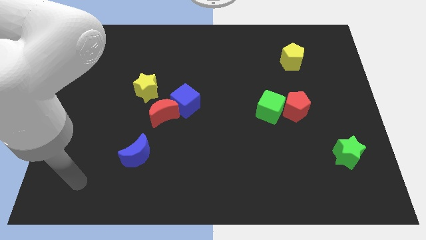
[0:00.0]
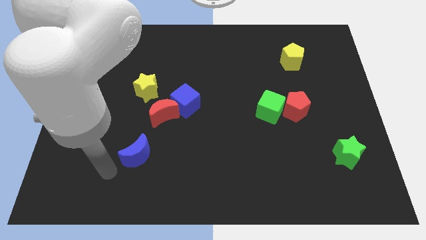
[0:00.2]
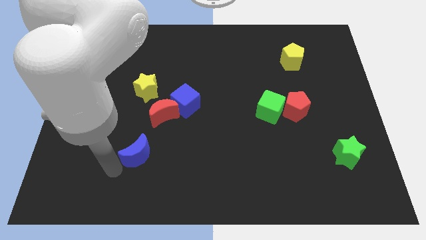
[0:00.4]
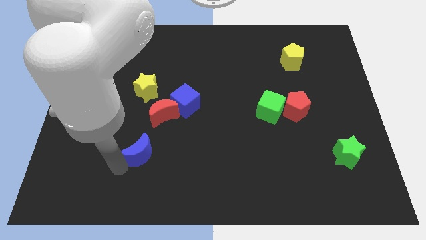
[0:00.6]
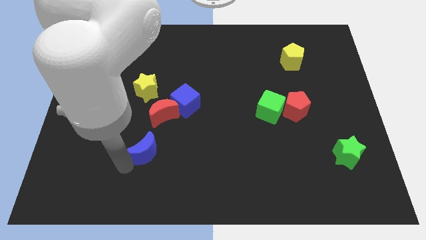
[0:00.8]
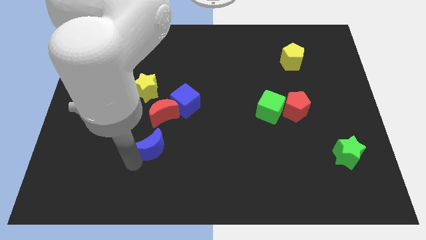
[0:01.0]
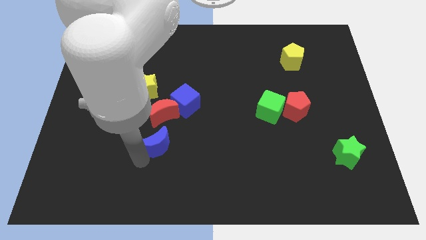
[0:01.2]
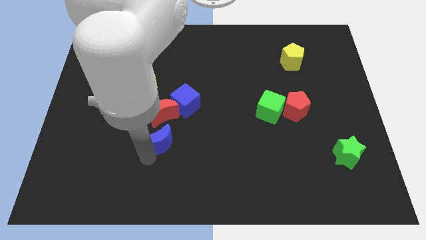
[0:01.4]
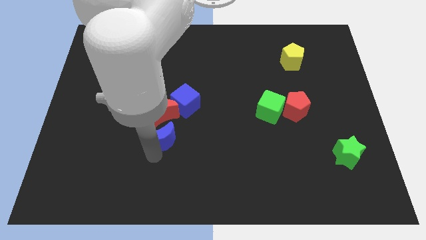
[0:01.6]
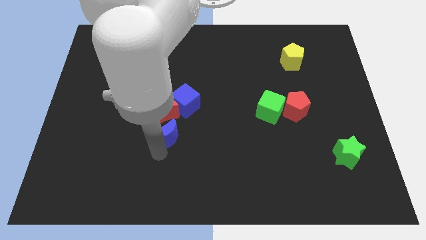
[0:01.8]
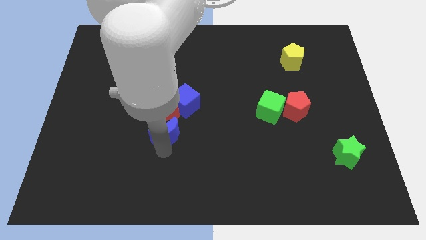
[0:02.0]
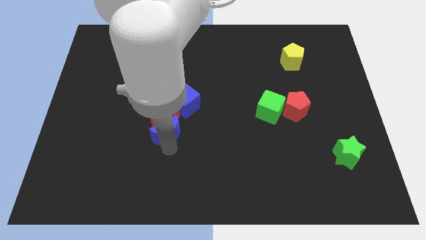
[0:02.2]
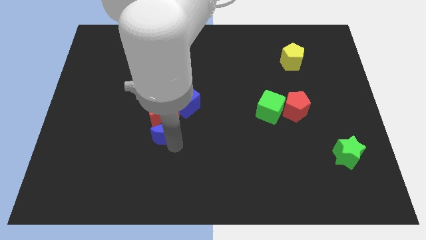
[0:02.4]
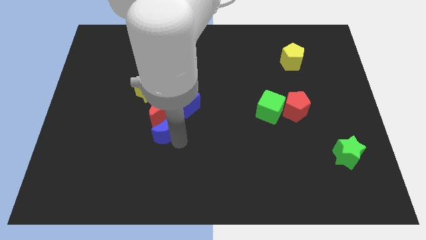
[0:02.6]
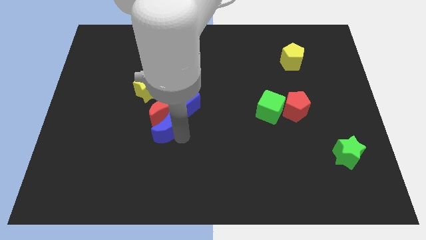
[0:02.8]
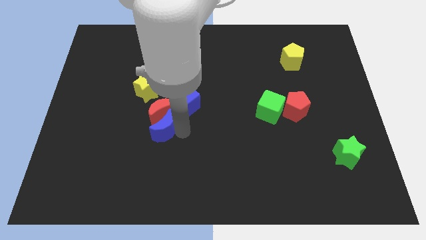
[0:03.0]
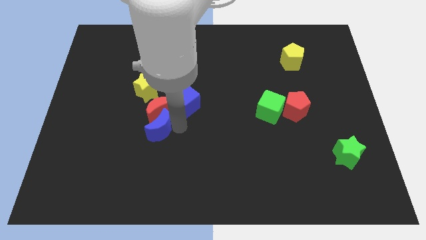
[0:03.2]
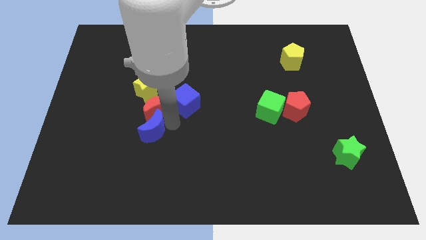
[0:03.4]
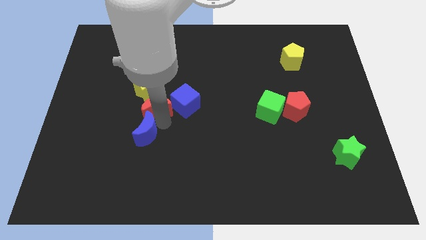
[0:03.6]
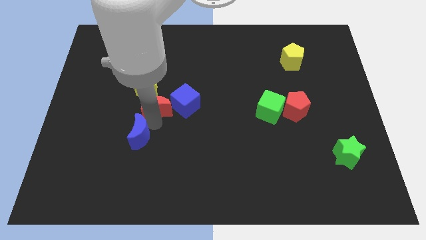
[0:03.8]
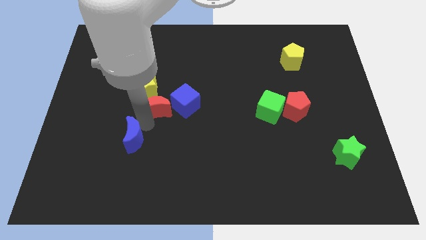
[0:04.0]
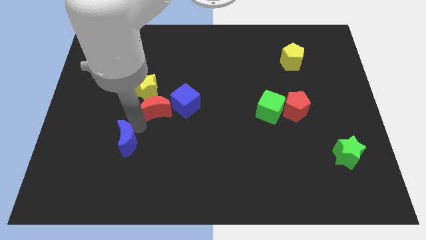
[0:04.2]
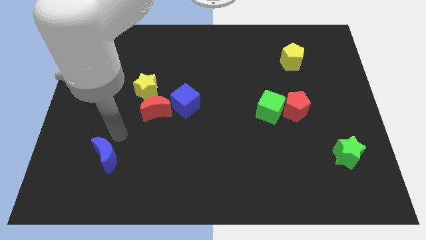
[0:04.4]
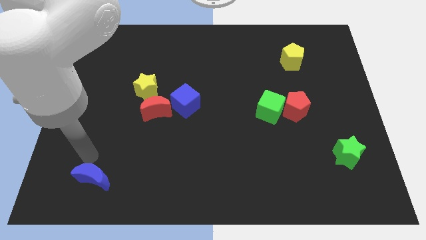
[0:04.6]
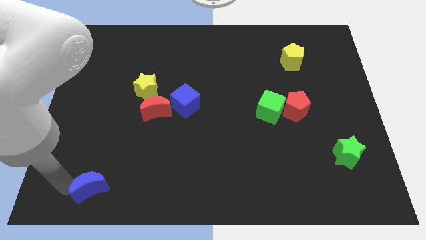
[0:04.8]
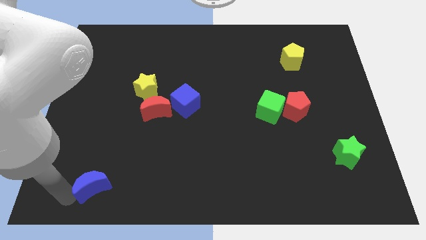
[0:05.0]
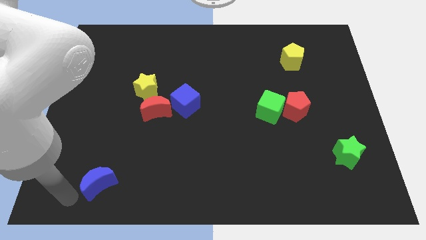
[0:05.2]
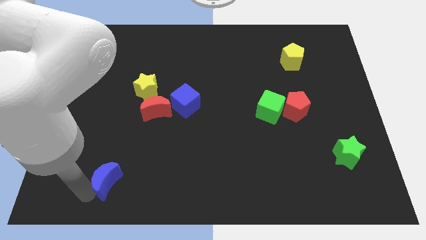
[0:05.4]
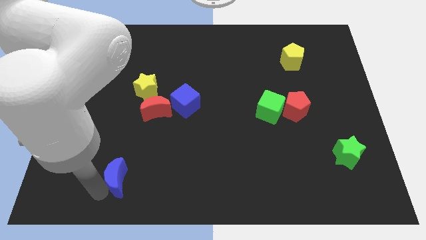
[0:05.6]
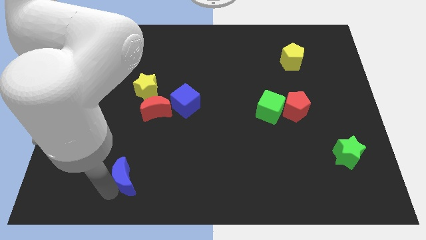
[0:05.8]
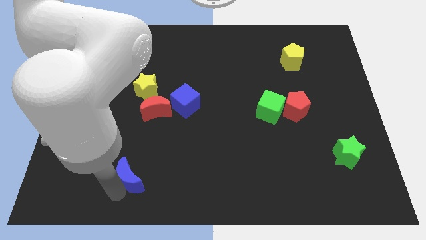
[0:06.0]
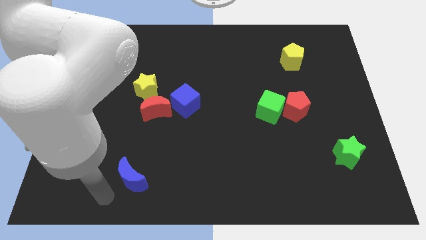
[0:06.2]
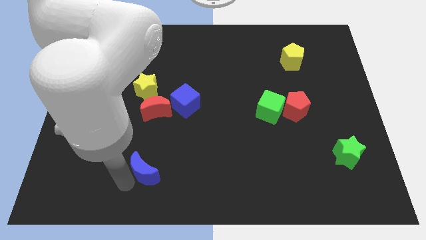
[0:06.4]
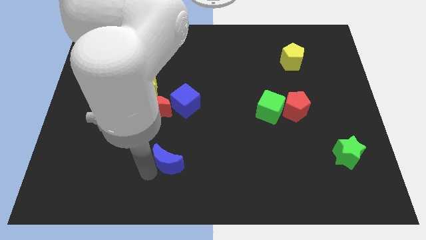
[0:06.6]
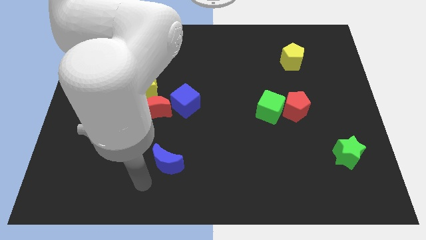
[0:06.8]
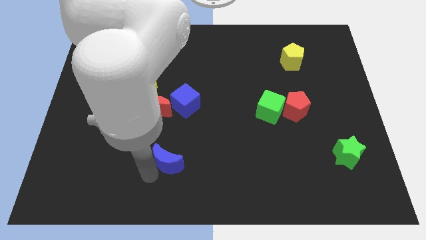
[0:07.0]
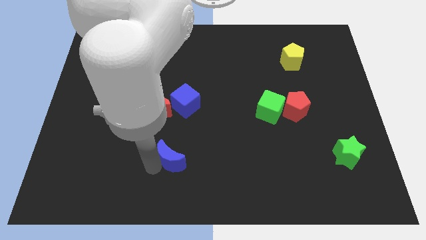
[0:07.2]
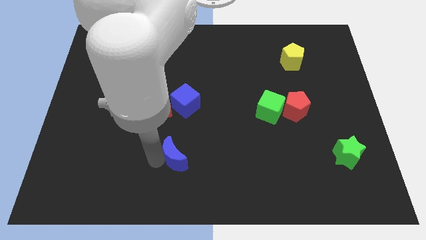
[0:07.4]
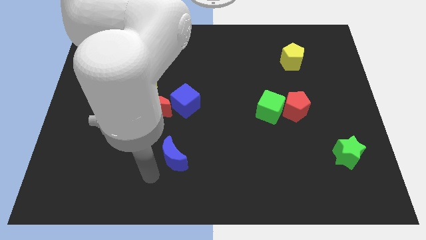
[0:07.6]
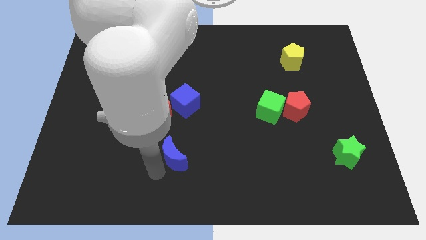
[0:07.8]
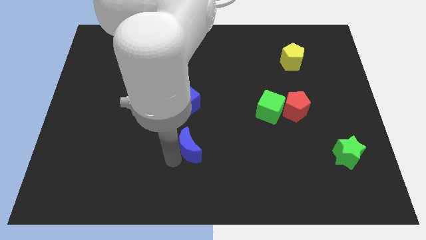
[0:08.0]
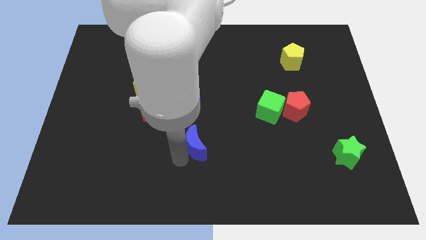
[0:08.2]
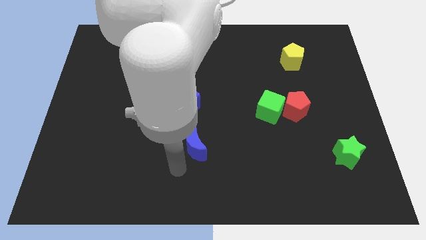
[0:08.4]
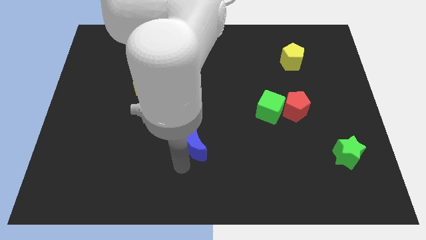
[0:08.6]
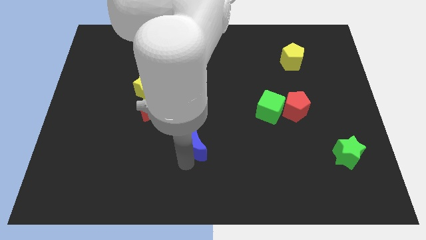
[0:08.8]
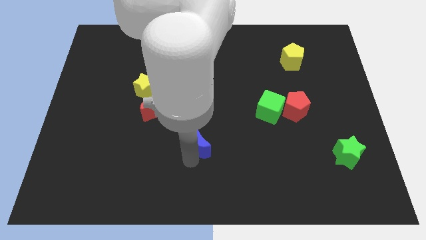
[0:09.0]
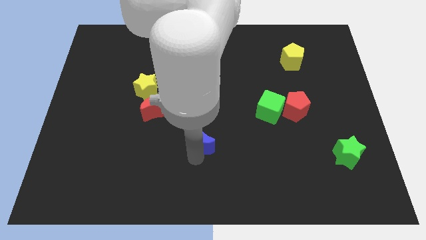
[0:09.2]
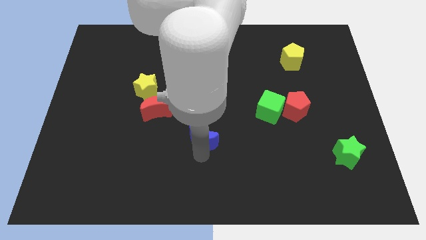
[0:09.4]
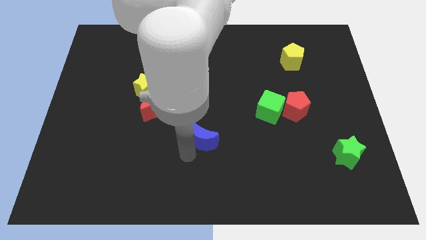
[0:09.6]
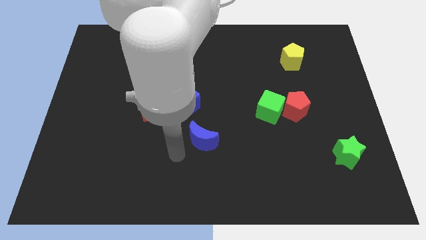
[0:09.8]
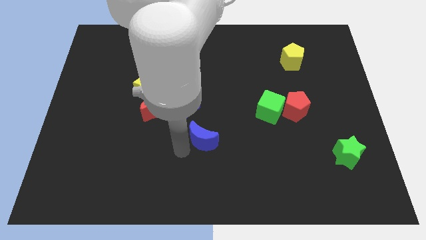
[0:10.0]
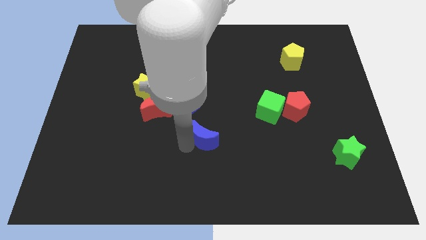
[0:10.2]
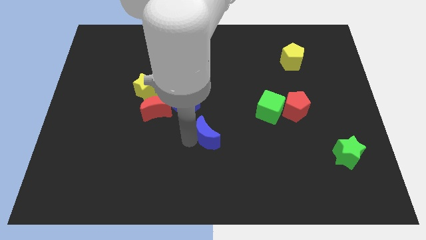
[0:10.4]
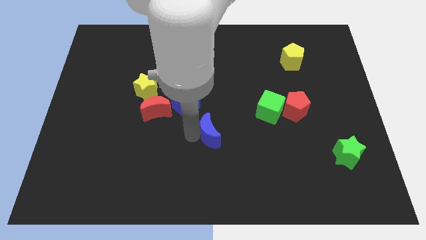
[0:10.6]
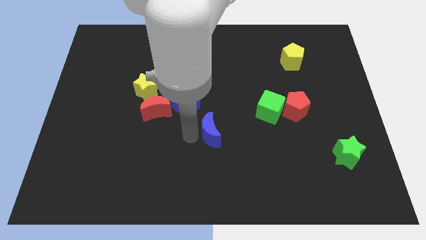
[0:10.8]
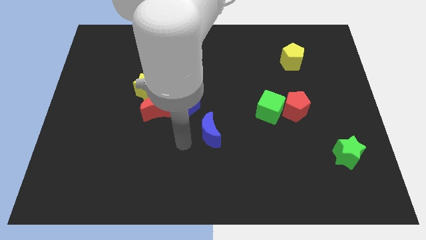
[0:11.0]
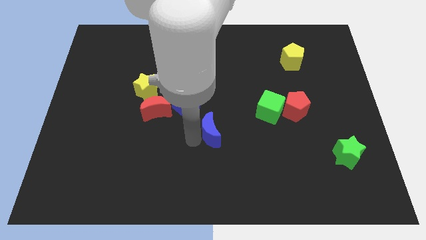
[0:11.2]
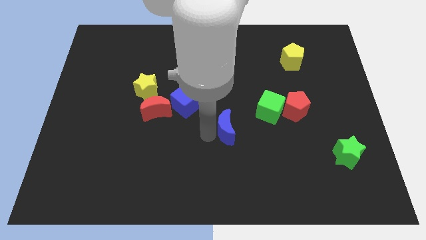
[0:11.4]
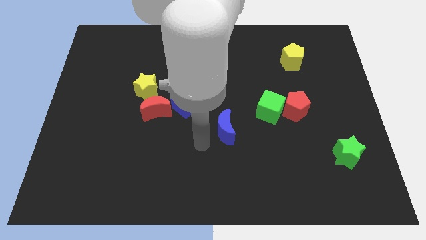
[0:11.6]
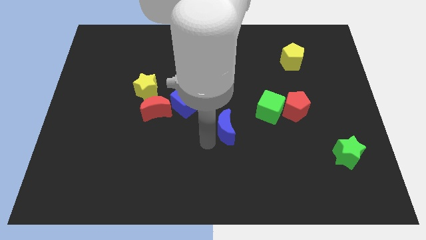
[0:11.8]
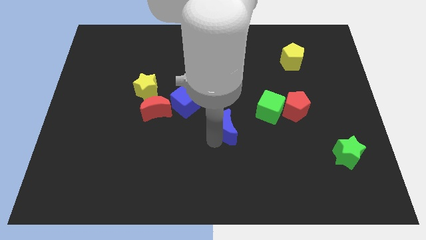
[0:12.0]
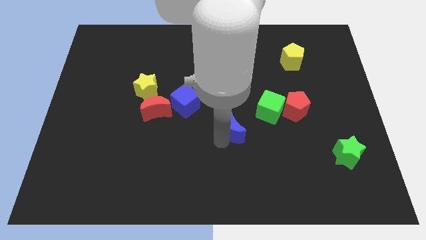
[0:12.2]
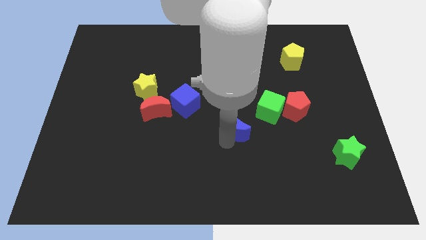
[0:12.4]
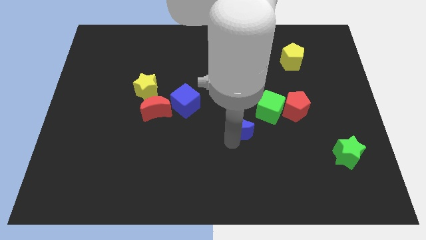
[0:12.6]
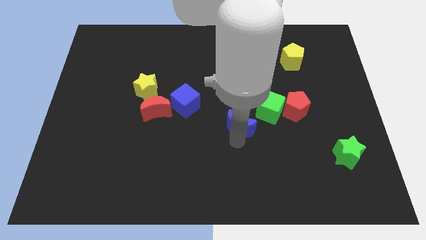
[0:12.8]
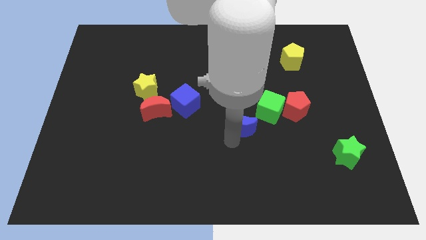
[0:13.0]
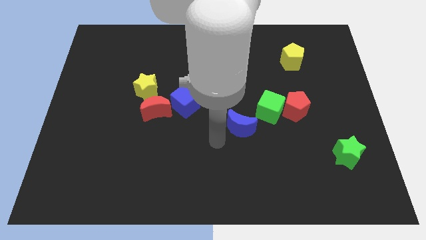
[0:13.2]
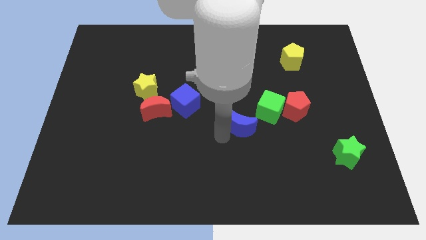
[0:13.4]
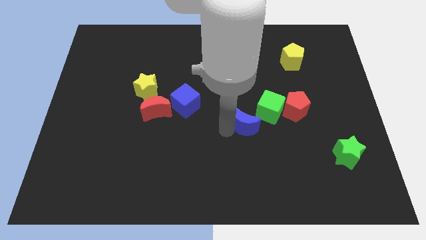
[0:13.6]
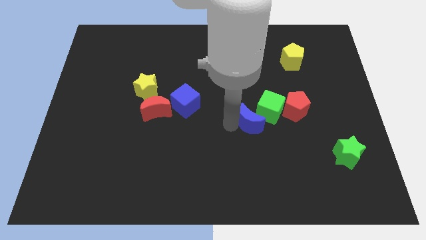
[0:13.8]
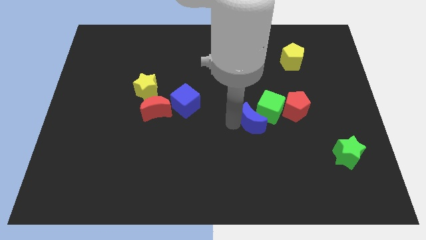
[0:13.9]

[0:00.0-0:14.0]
put the blue moon next to the green cube
